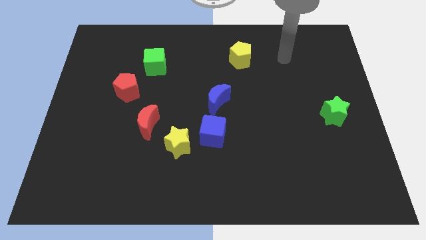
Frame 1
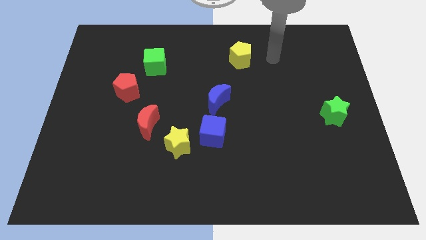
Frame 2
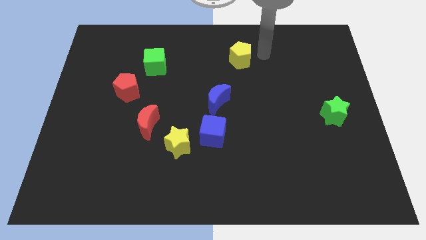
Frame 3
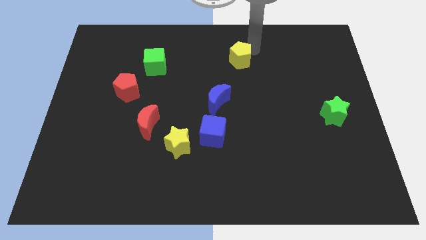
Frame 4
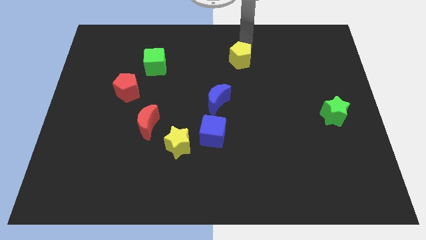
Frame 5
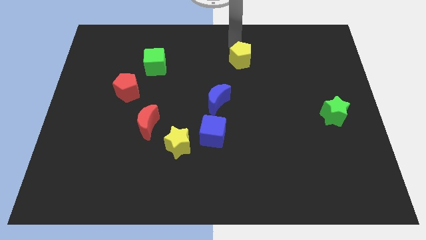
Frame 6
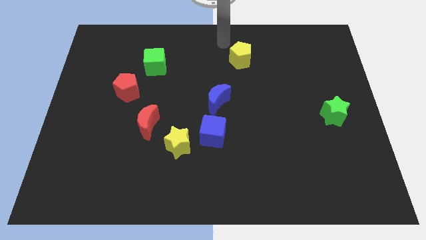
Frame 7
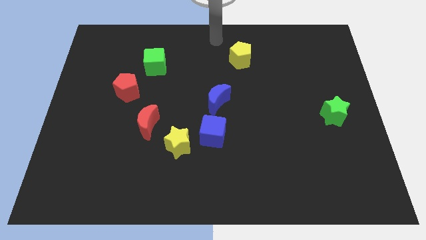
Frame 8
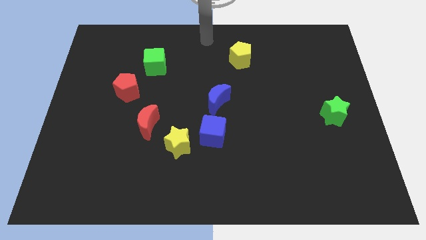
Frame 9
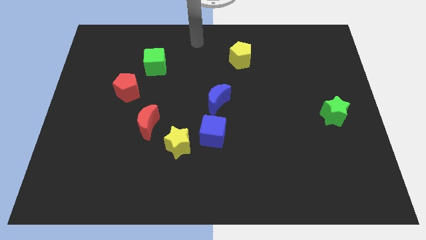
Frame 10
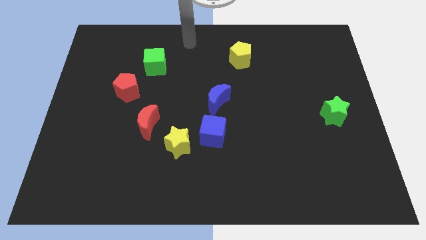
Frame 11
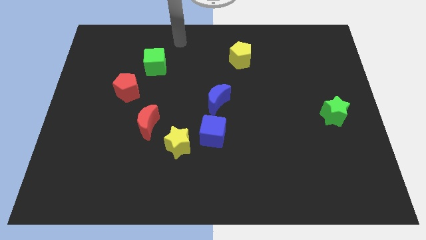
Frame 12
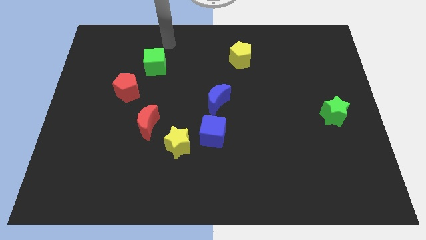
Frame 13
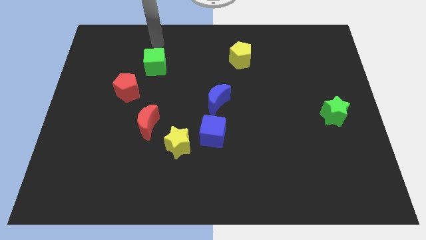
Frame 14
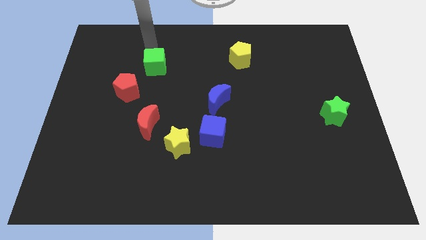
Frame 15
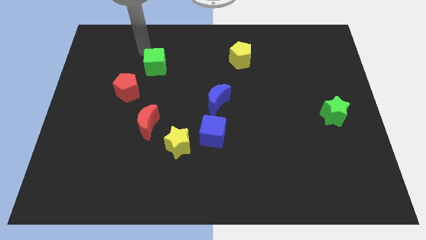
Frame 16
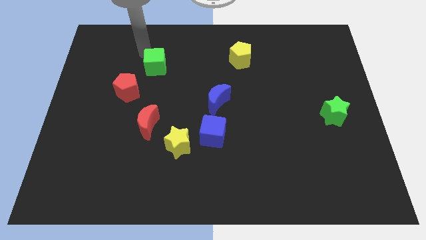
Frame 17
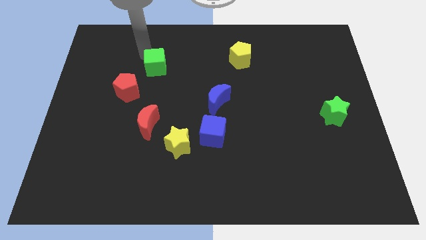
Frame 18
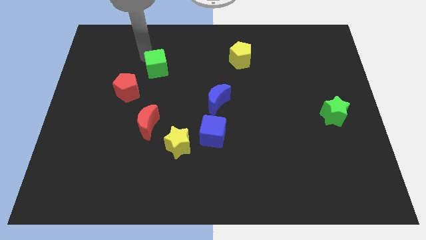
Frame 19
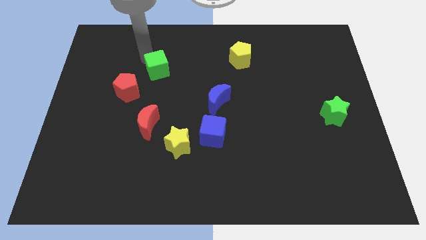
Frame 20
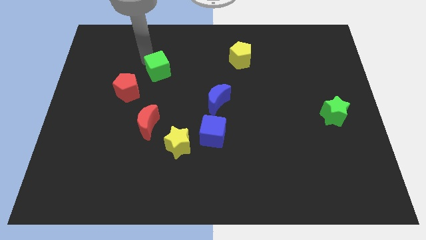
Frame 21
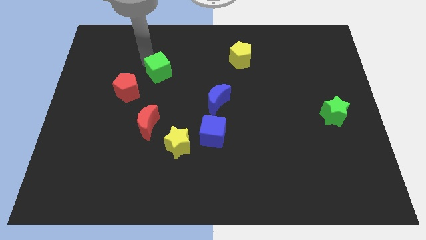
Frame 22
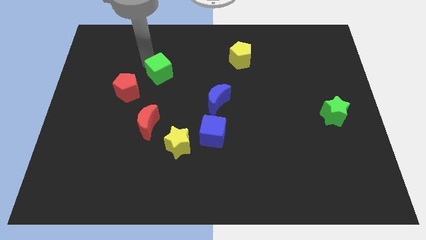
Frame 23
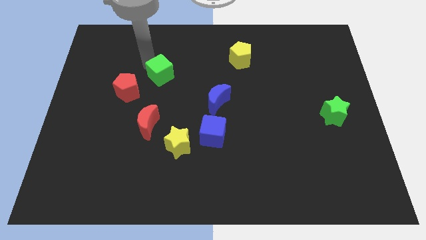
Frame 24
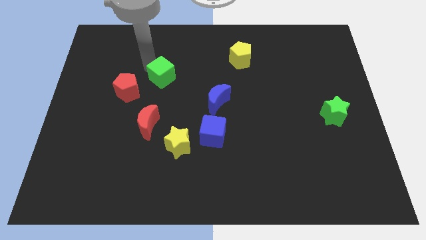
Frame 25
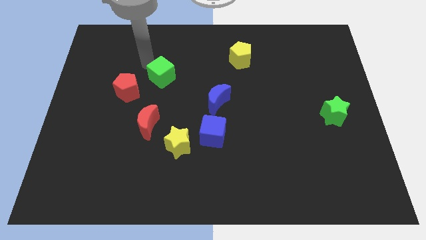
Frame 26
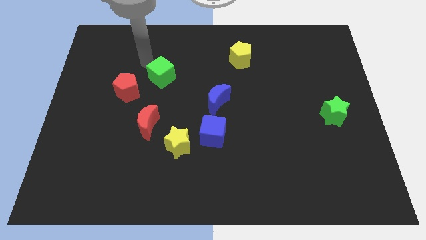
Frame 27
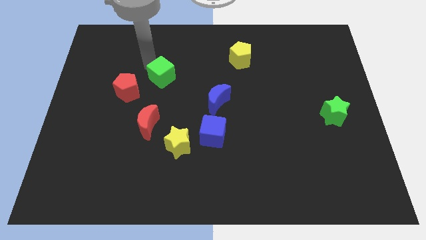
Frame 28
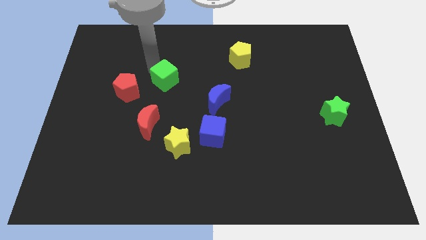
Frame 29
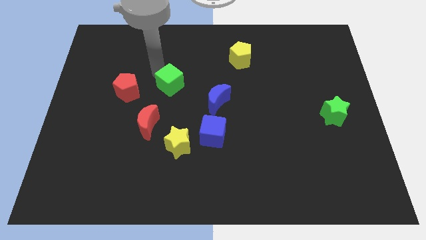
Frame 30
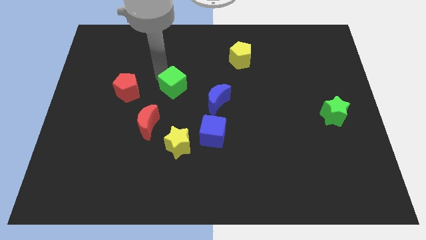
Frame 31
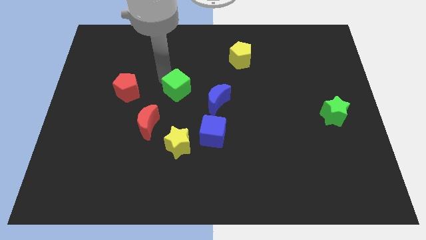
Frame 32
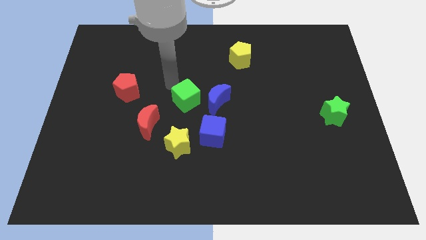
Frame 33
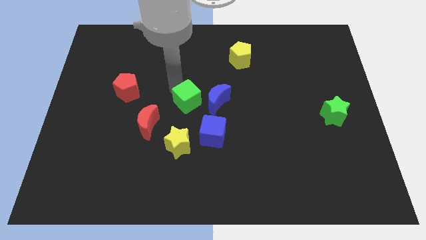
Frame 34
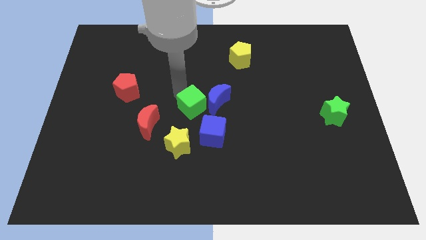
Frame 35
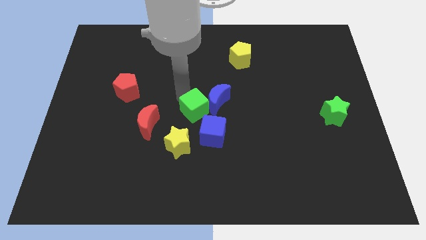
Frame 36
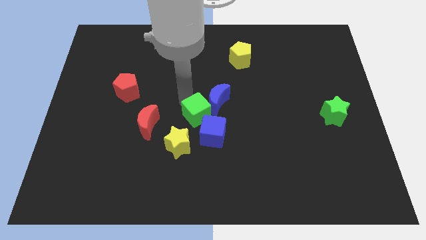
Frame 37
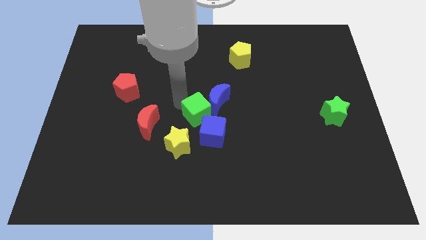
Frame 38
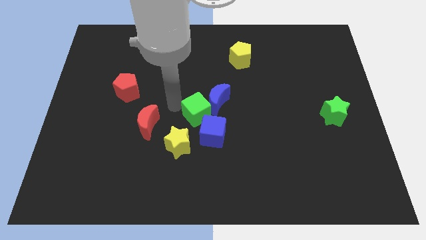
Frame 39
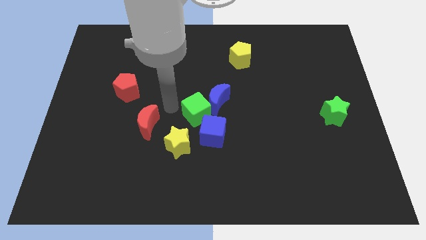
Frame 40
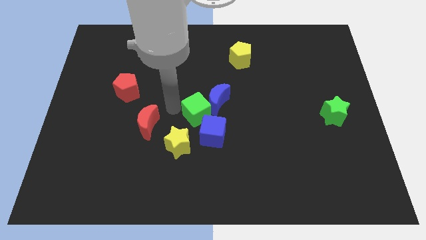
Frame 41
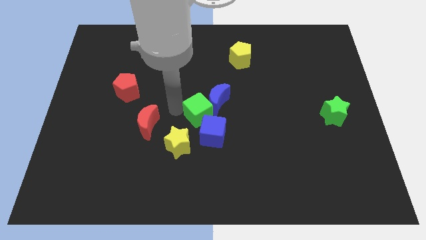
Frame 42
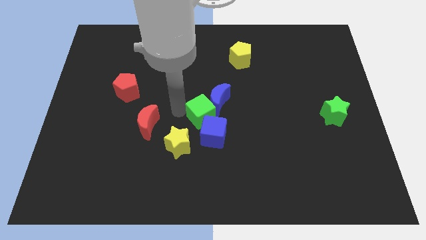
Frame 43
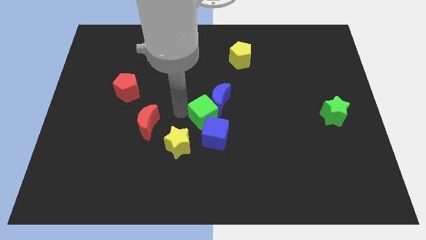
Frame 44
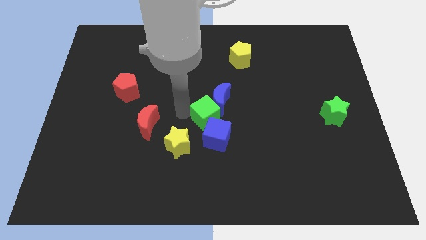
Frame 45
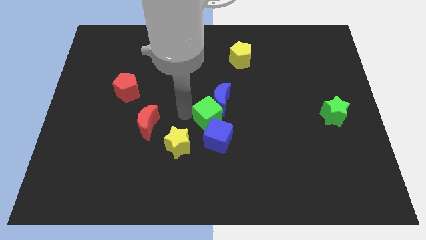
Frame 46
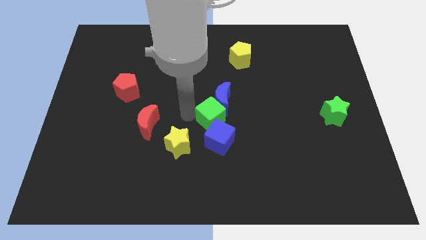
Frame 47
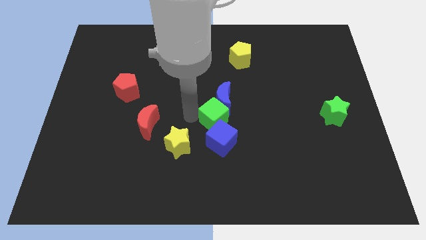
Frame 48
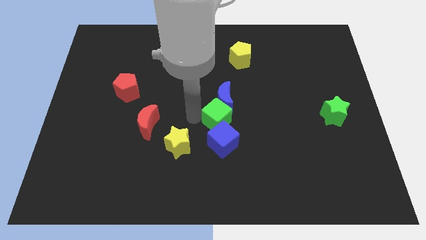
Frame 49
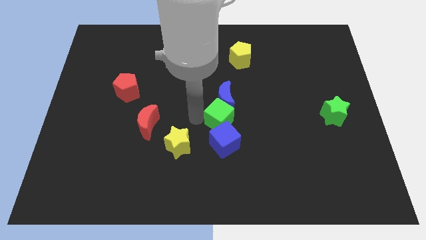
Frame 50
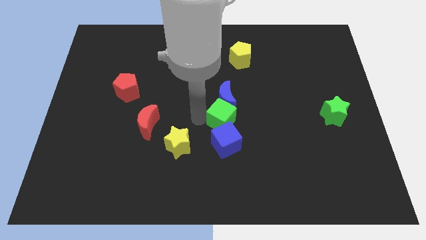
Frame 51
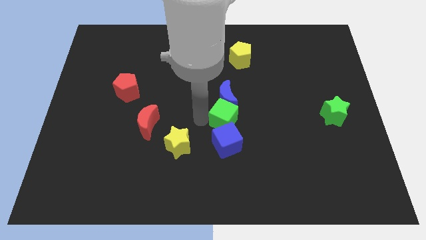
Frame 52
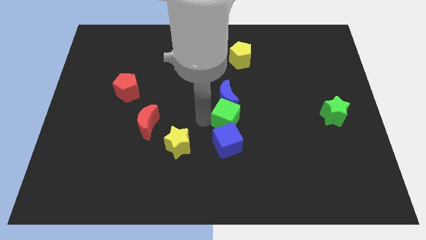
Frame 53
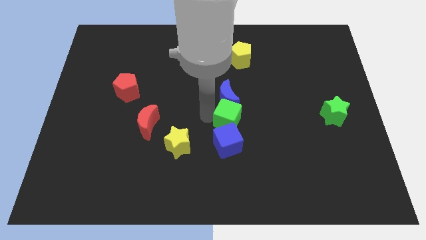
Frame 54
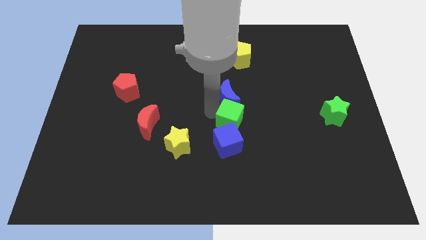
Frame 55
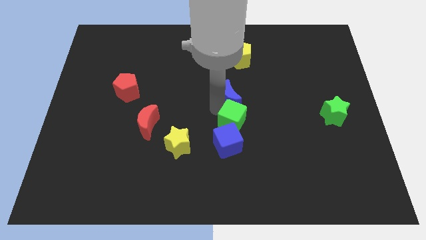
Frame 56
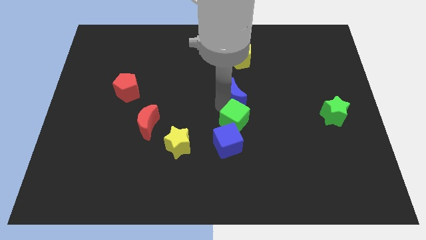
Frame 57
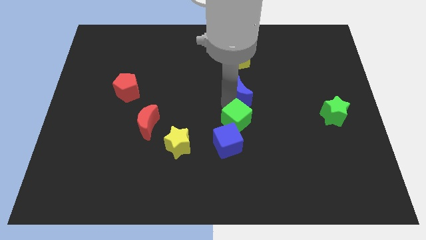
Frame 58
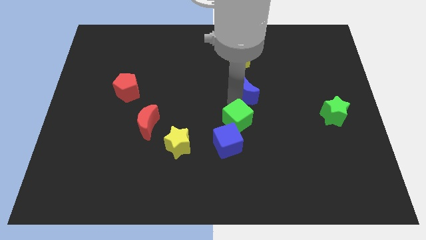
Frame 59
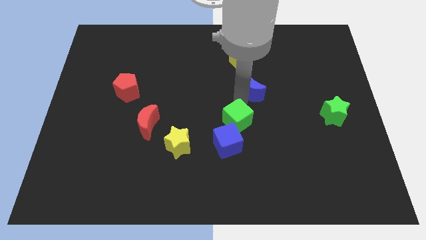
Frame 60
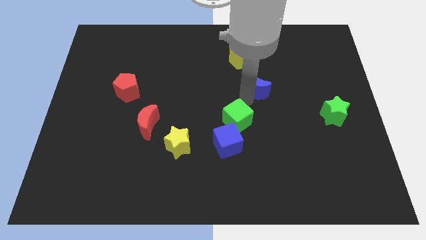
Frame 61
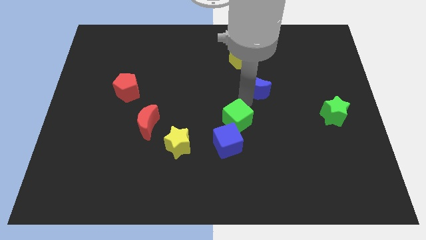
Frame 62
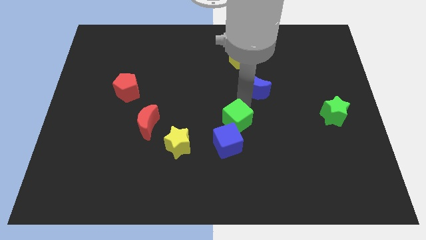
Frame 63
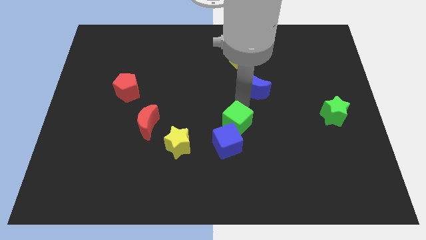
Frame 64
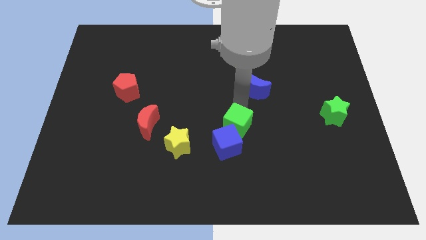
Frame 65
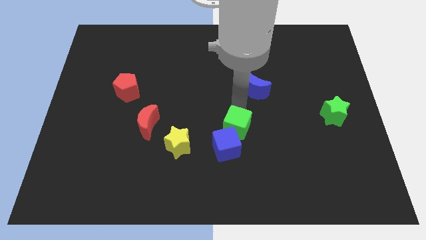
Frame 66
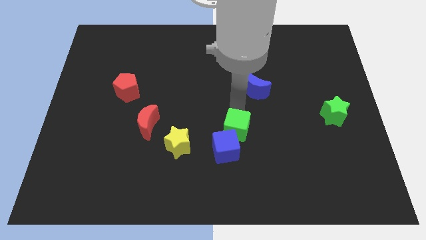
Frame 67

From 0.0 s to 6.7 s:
put the green cube right of the yellow star

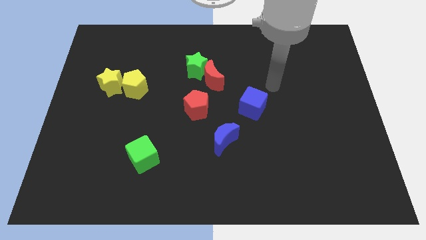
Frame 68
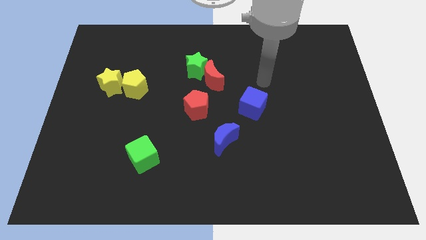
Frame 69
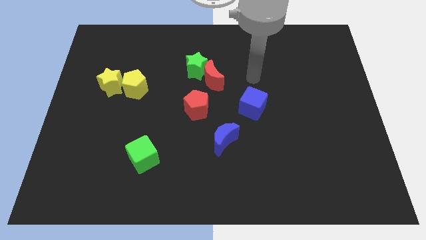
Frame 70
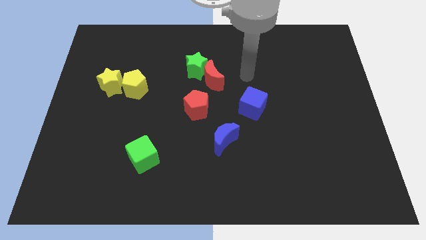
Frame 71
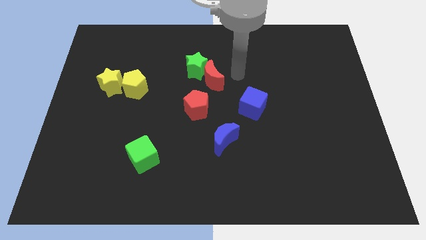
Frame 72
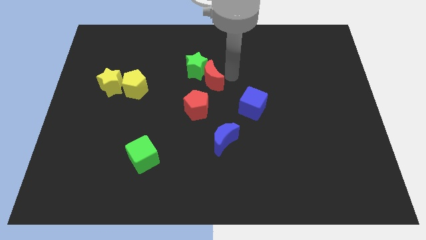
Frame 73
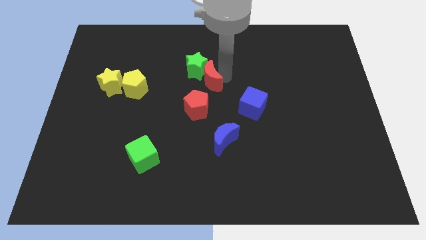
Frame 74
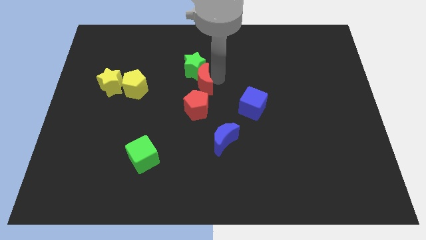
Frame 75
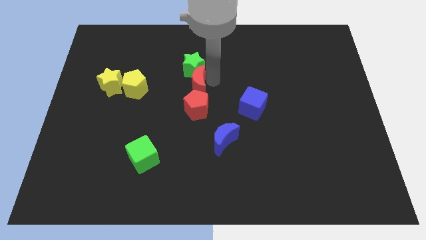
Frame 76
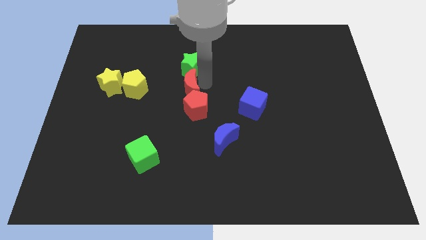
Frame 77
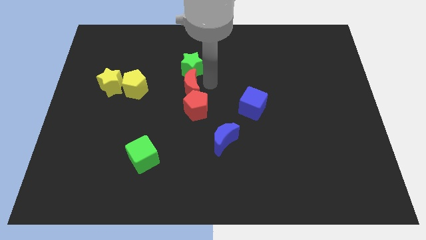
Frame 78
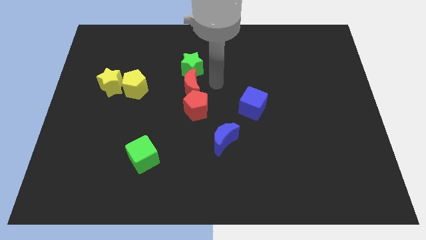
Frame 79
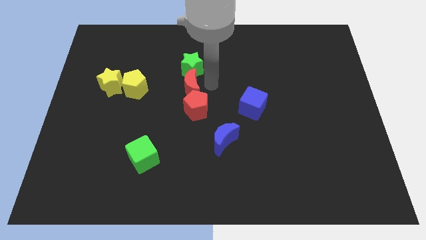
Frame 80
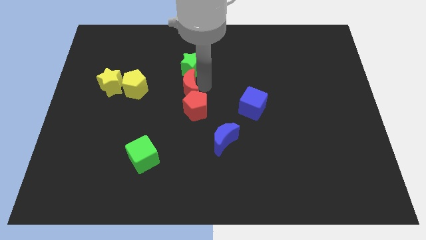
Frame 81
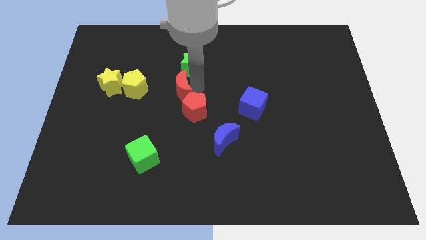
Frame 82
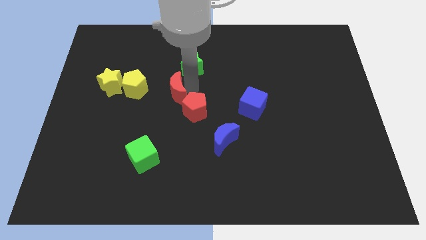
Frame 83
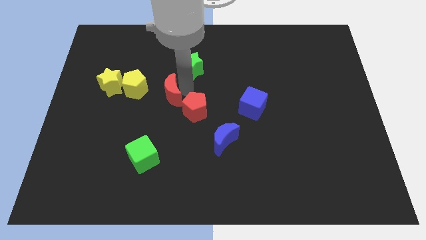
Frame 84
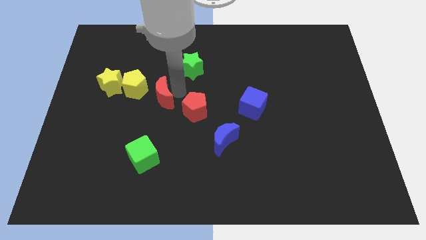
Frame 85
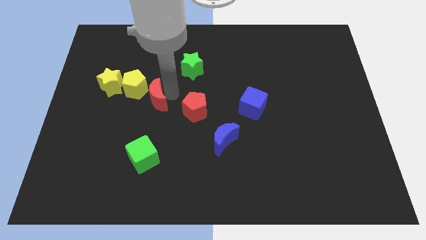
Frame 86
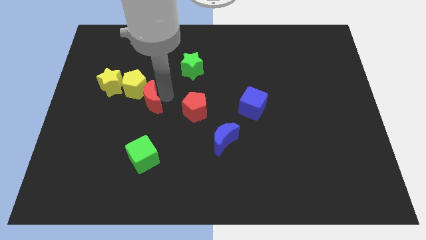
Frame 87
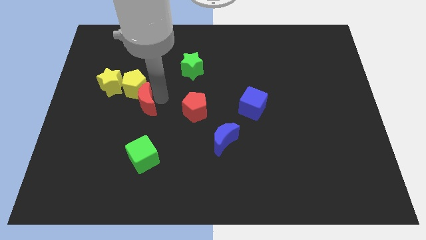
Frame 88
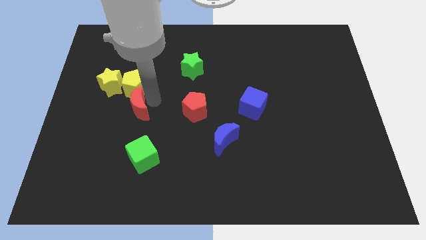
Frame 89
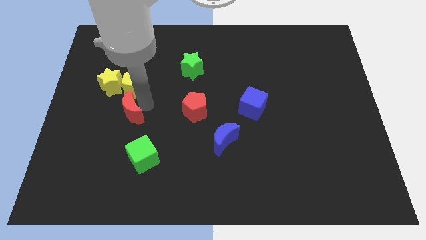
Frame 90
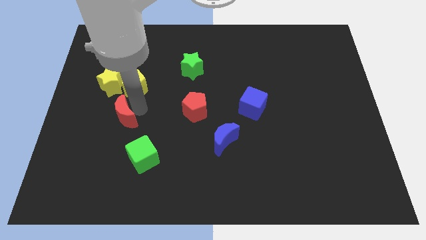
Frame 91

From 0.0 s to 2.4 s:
slide the red moon to the bottom of the yellow star
